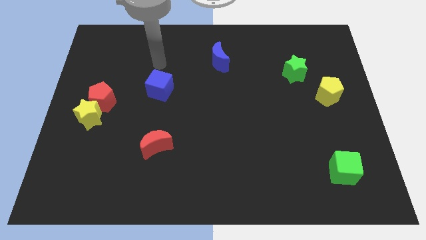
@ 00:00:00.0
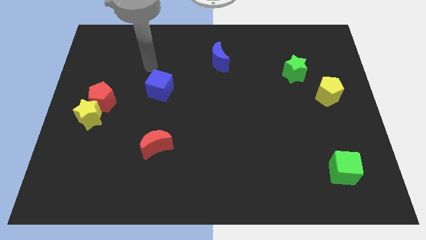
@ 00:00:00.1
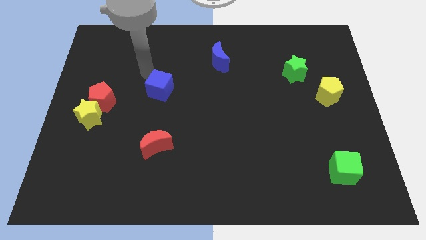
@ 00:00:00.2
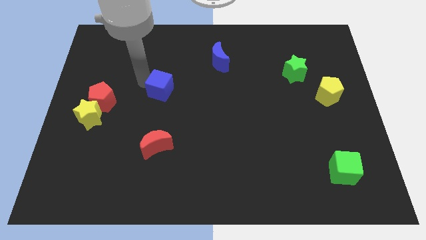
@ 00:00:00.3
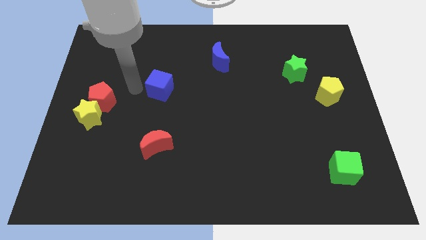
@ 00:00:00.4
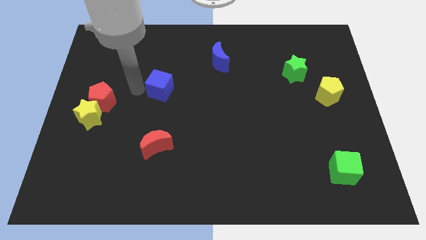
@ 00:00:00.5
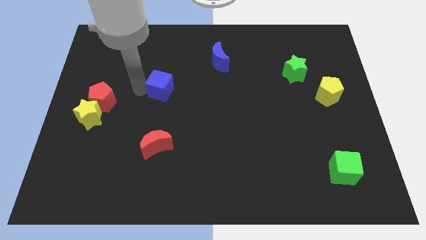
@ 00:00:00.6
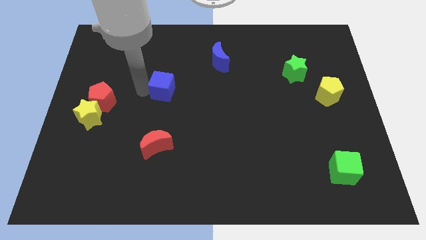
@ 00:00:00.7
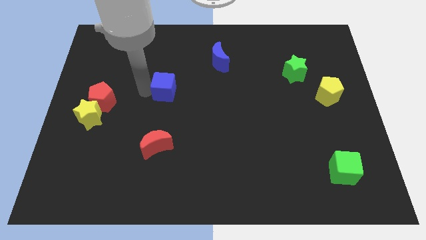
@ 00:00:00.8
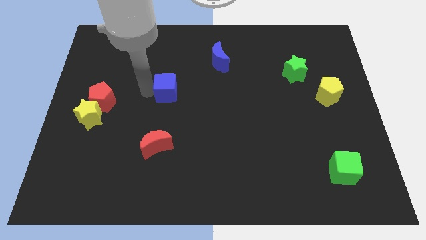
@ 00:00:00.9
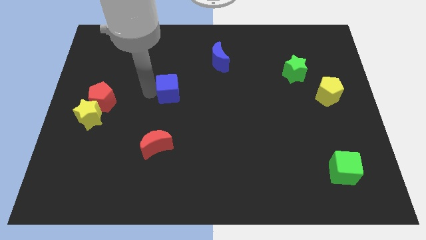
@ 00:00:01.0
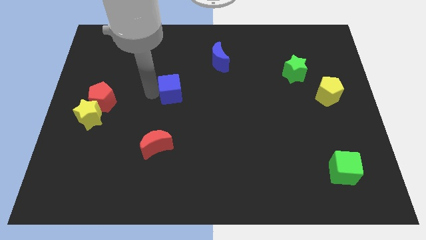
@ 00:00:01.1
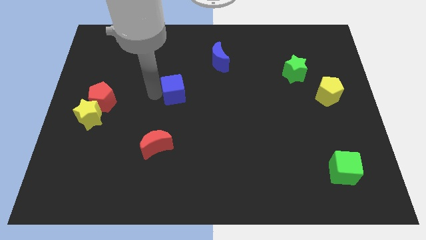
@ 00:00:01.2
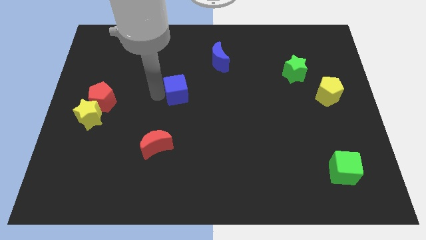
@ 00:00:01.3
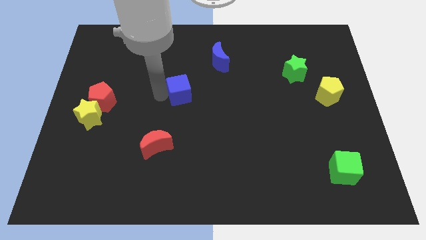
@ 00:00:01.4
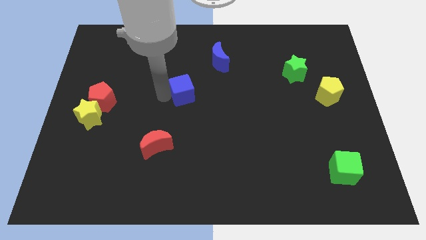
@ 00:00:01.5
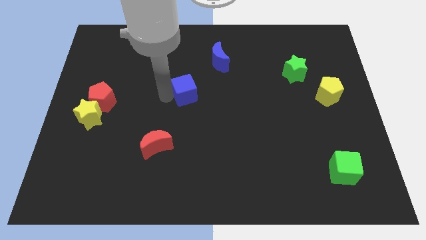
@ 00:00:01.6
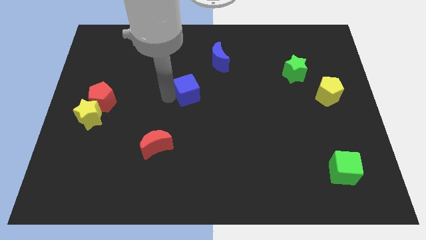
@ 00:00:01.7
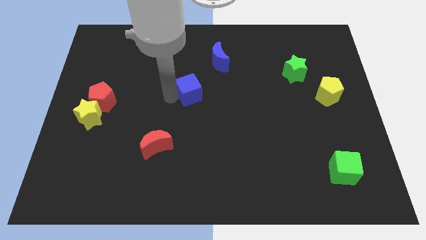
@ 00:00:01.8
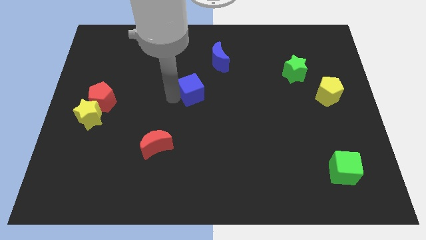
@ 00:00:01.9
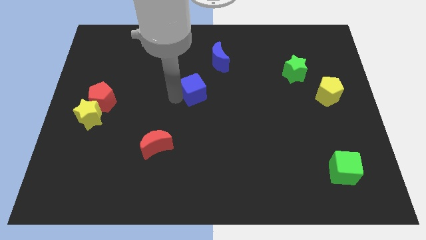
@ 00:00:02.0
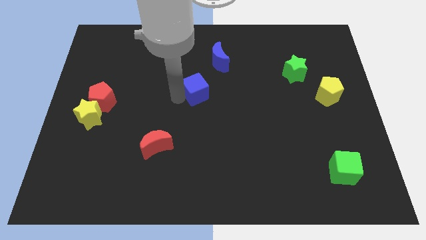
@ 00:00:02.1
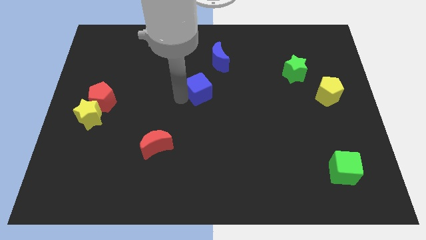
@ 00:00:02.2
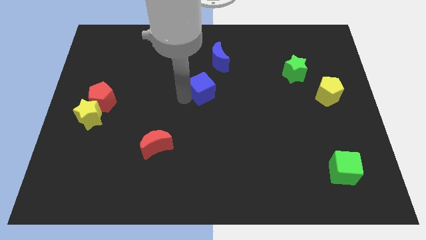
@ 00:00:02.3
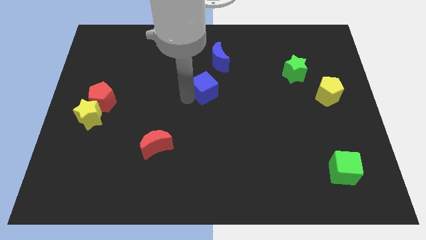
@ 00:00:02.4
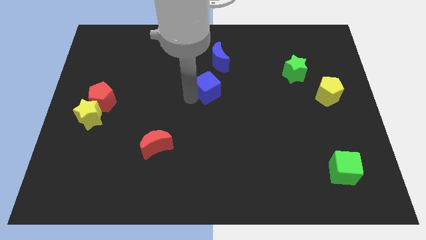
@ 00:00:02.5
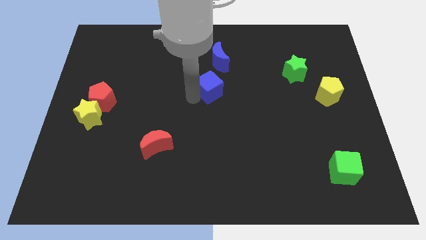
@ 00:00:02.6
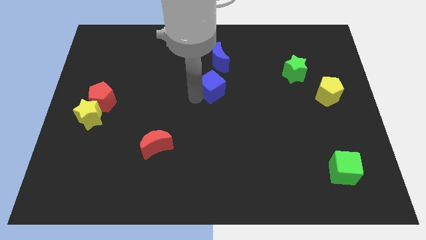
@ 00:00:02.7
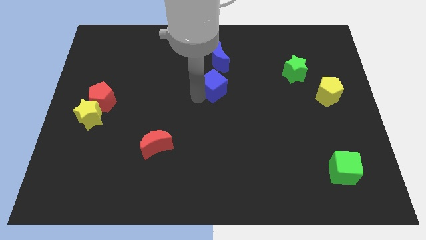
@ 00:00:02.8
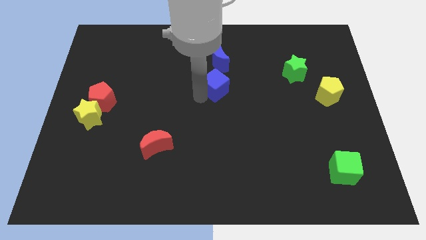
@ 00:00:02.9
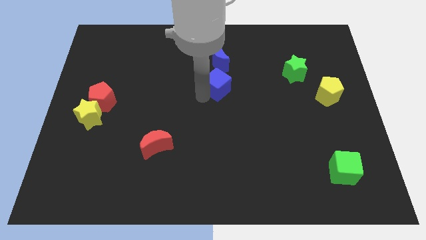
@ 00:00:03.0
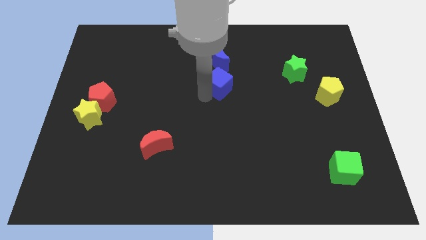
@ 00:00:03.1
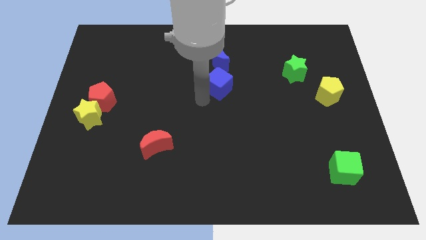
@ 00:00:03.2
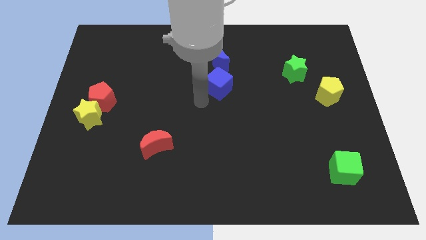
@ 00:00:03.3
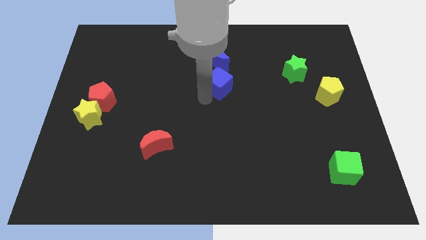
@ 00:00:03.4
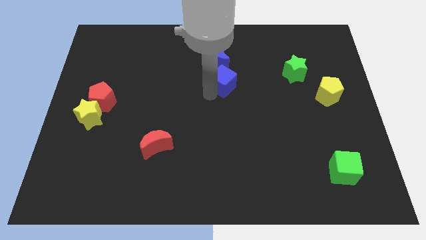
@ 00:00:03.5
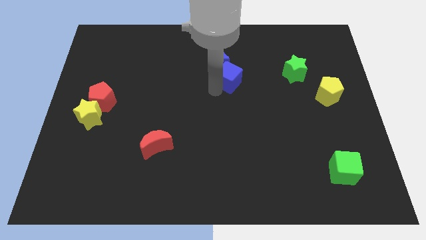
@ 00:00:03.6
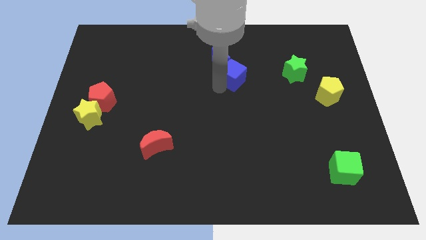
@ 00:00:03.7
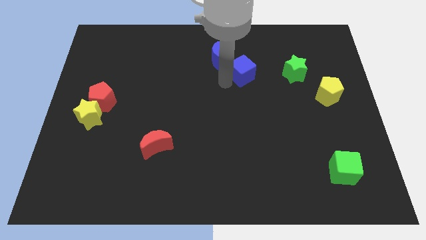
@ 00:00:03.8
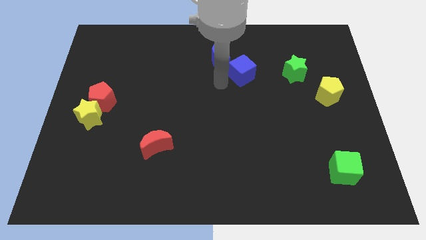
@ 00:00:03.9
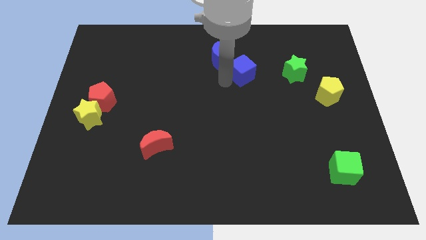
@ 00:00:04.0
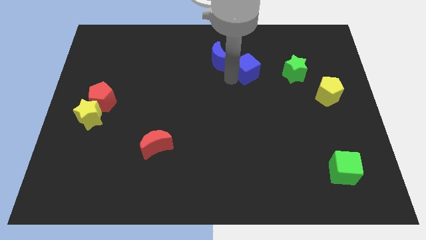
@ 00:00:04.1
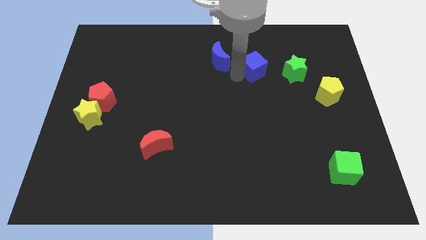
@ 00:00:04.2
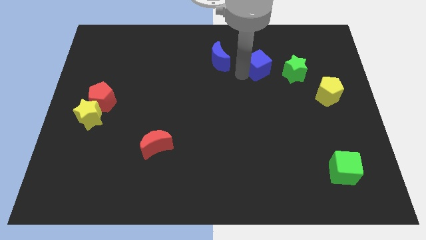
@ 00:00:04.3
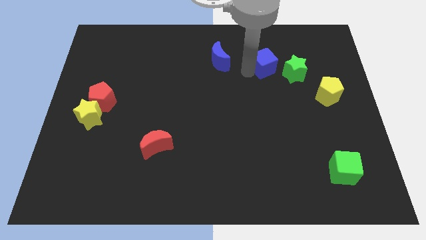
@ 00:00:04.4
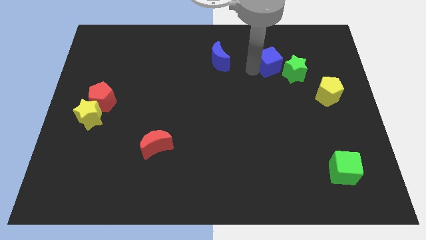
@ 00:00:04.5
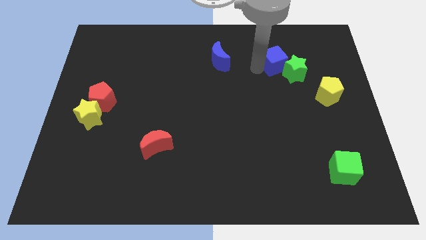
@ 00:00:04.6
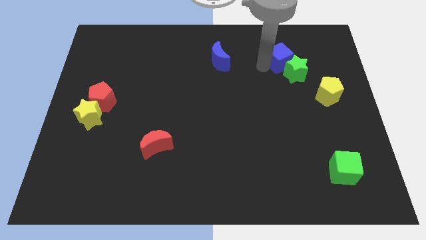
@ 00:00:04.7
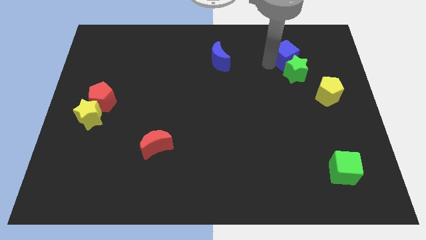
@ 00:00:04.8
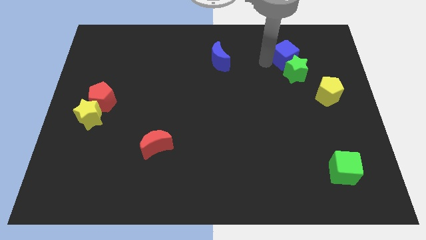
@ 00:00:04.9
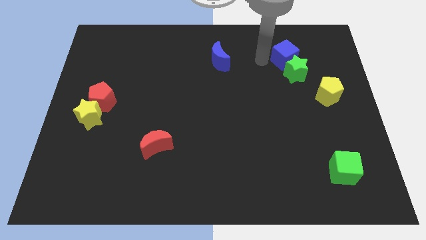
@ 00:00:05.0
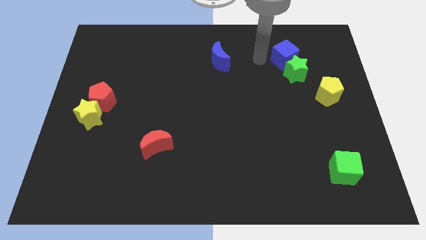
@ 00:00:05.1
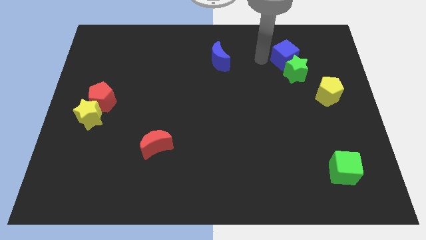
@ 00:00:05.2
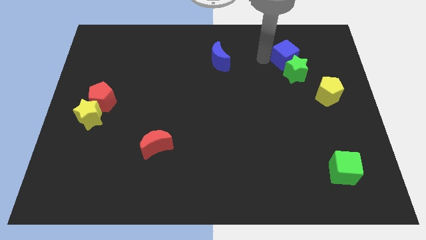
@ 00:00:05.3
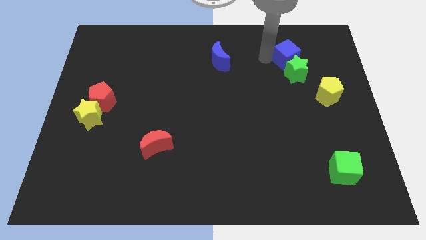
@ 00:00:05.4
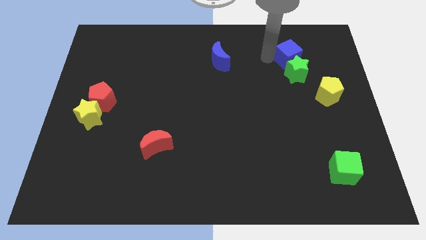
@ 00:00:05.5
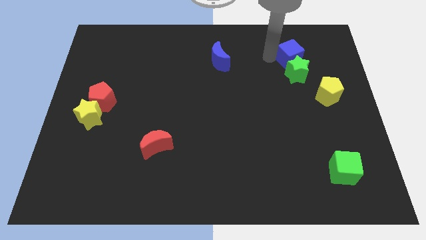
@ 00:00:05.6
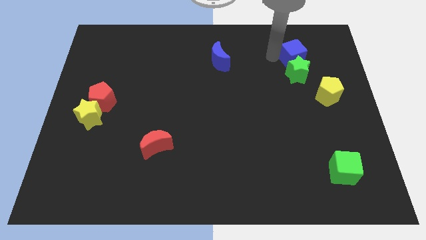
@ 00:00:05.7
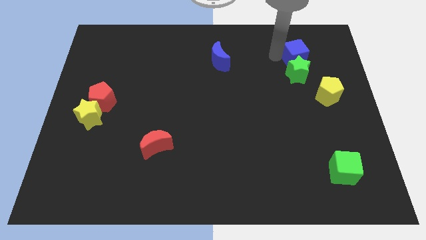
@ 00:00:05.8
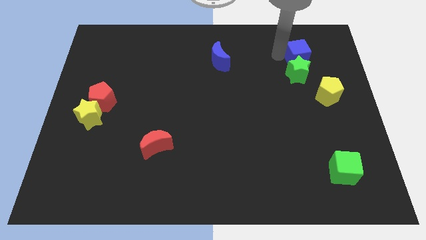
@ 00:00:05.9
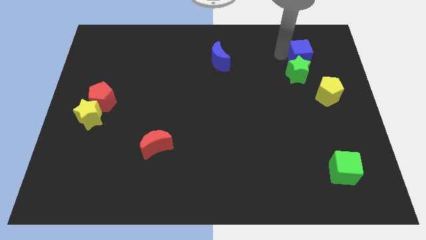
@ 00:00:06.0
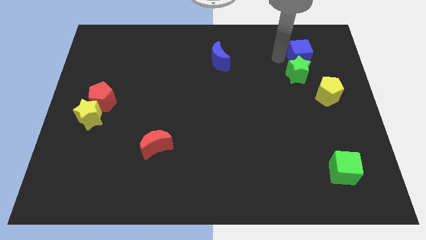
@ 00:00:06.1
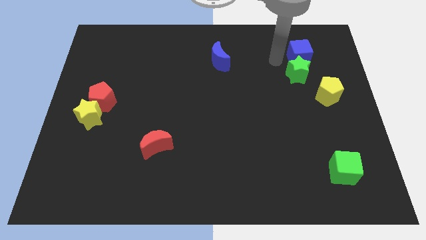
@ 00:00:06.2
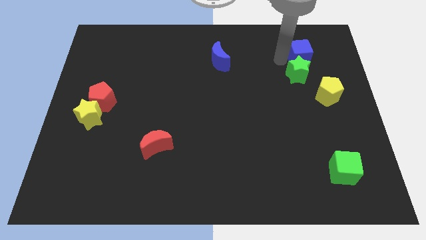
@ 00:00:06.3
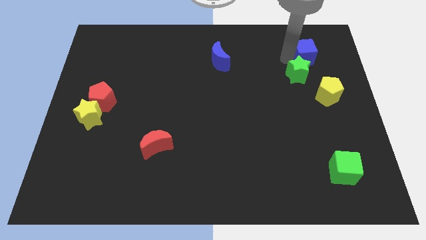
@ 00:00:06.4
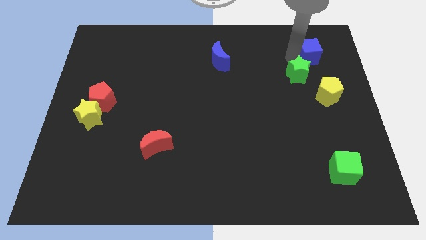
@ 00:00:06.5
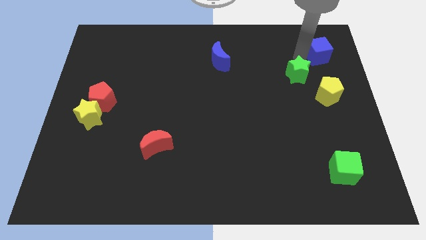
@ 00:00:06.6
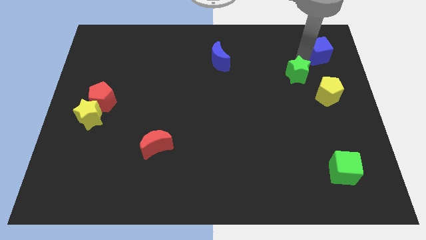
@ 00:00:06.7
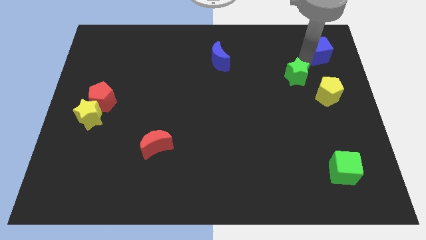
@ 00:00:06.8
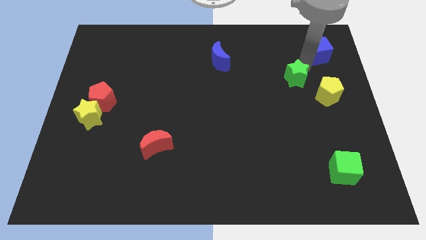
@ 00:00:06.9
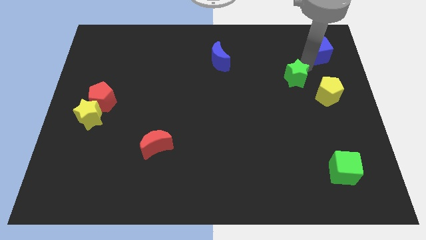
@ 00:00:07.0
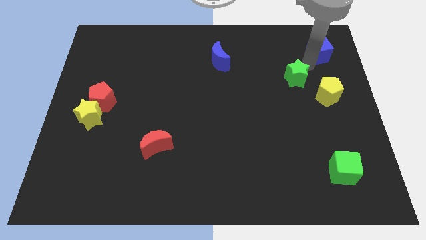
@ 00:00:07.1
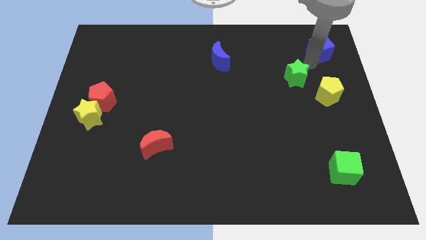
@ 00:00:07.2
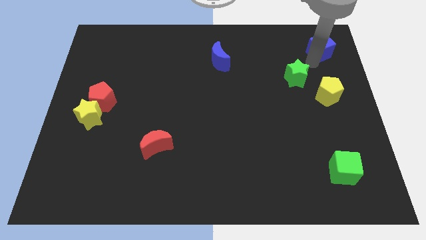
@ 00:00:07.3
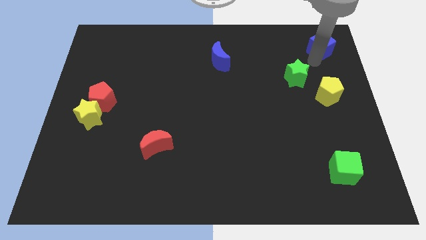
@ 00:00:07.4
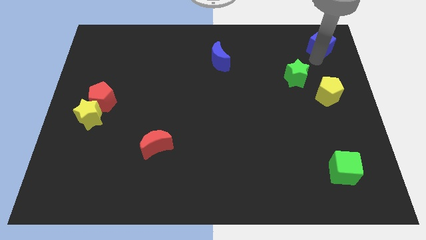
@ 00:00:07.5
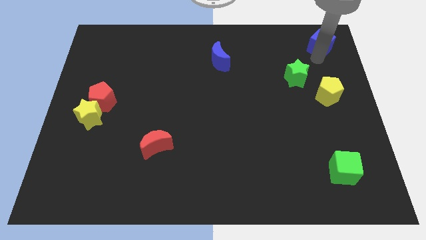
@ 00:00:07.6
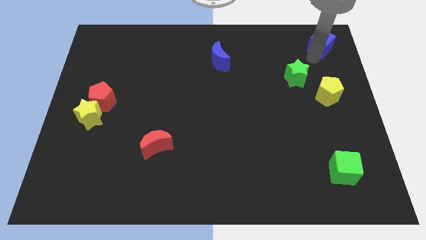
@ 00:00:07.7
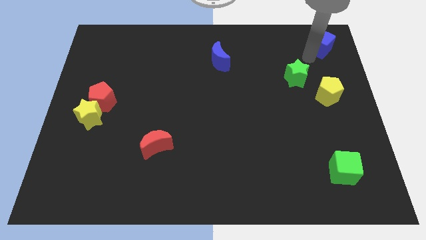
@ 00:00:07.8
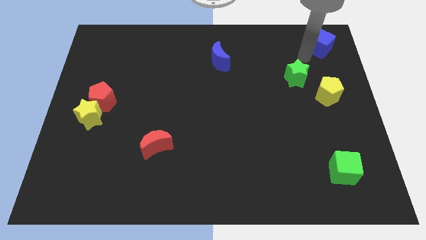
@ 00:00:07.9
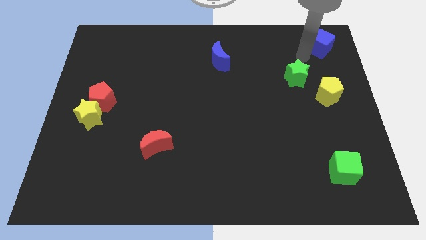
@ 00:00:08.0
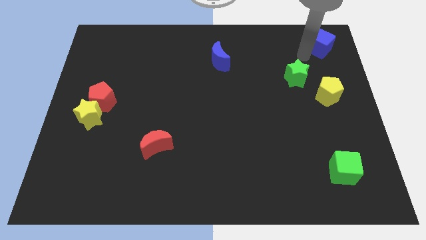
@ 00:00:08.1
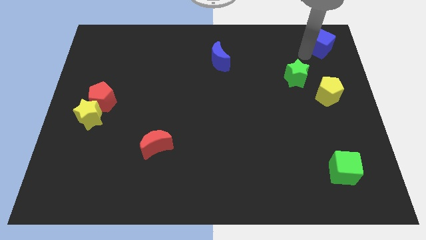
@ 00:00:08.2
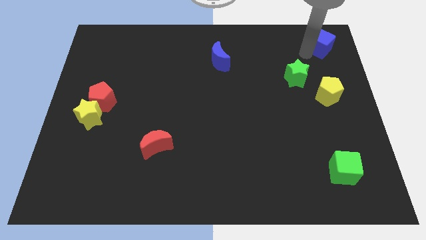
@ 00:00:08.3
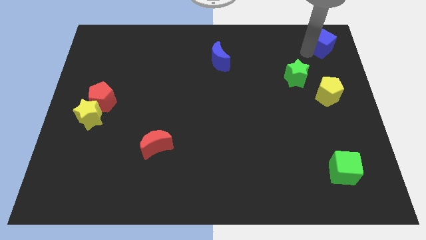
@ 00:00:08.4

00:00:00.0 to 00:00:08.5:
move the blue cube to the upper right corner
